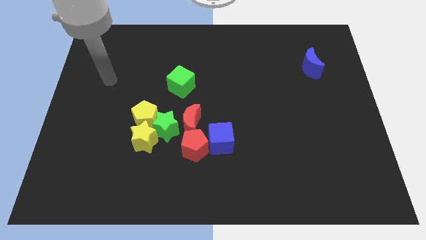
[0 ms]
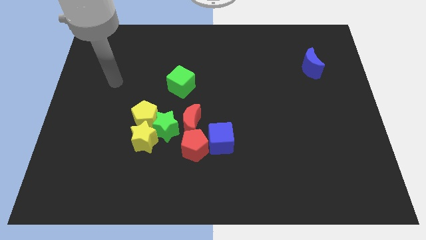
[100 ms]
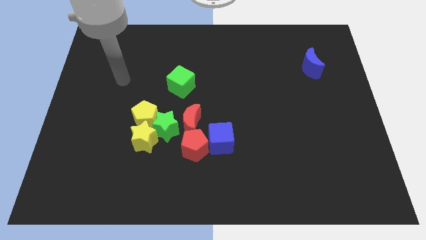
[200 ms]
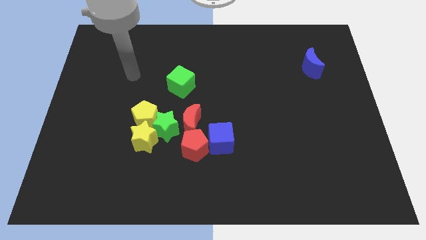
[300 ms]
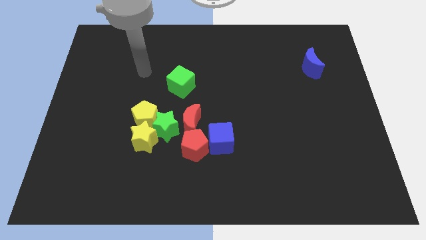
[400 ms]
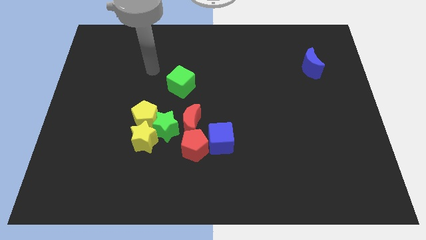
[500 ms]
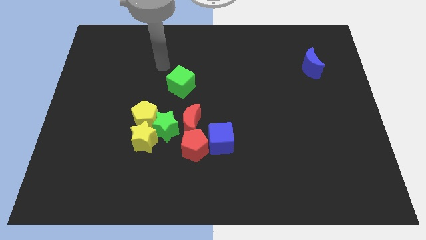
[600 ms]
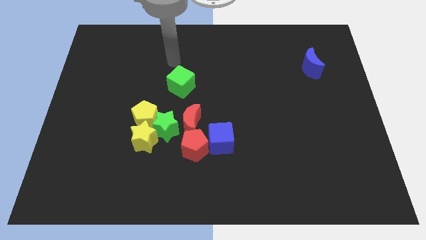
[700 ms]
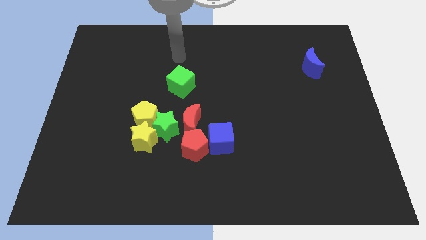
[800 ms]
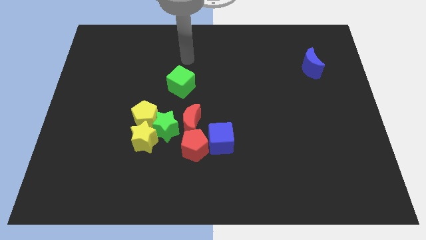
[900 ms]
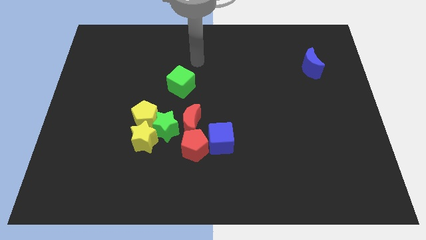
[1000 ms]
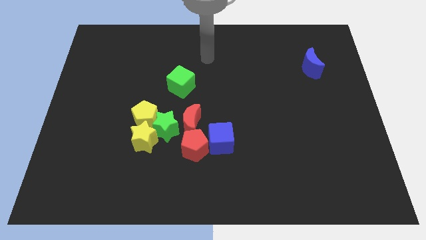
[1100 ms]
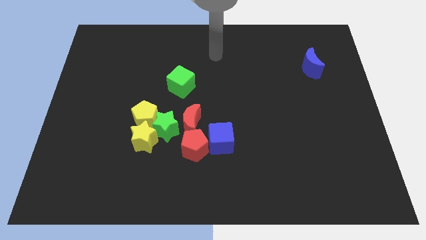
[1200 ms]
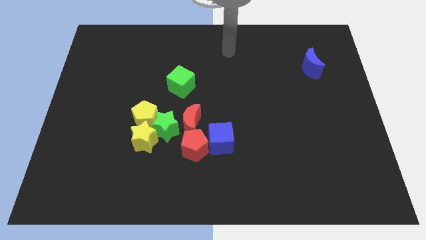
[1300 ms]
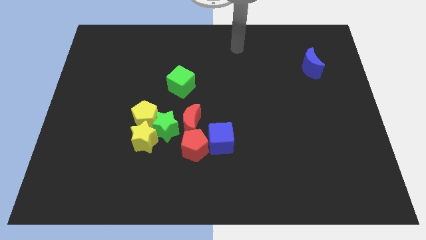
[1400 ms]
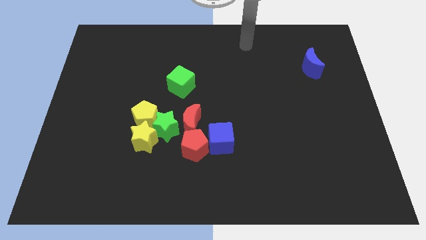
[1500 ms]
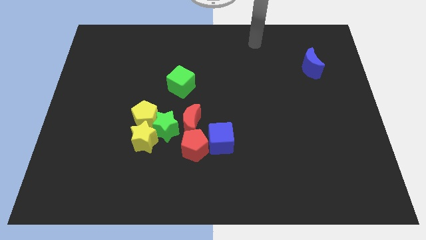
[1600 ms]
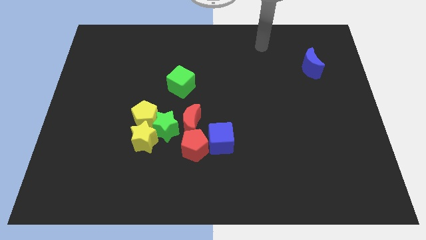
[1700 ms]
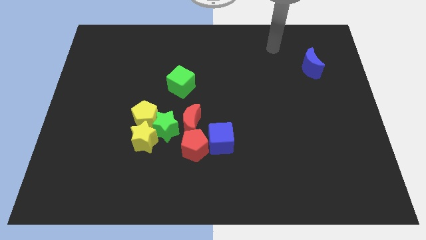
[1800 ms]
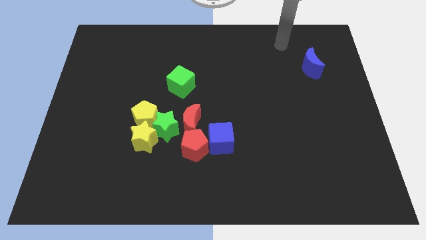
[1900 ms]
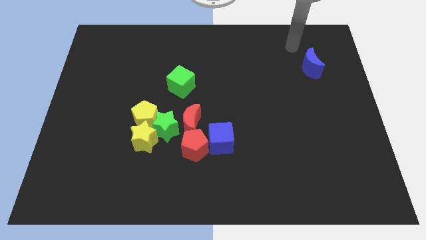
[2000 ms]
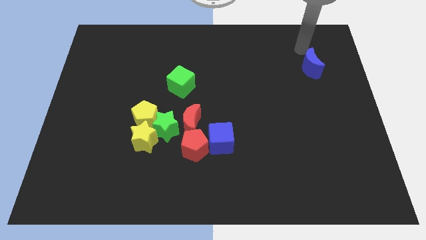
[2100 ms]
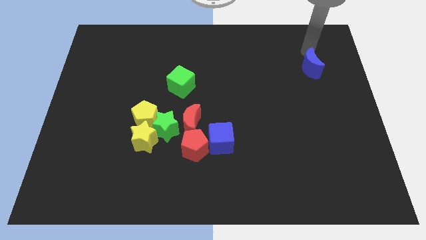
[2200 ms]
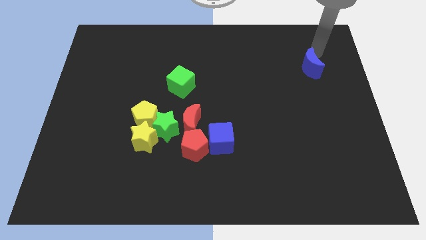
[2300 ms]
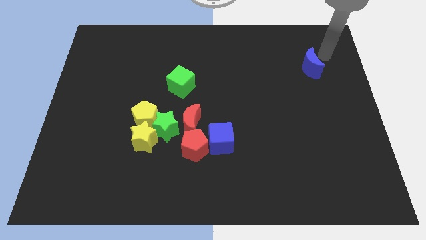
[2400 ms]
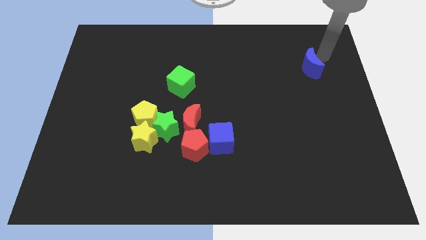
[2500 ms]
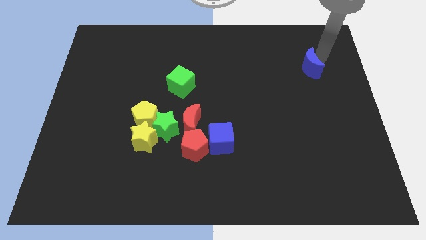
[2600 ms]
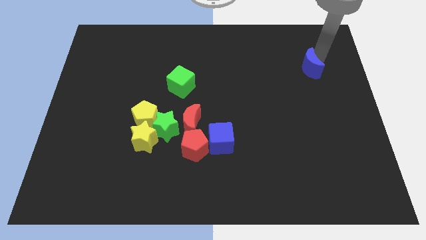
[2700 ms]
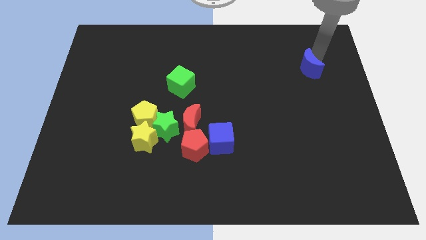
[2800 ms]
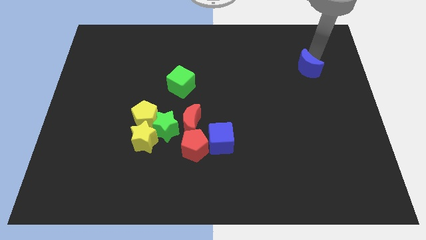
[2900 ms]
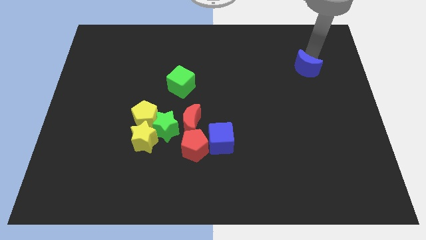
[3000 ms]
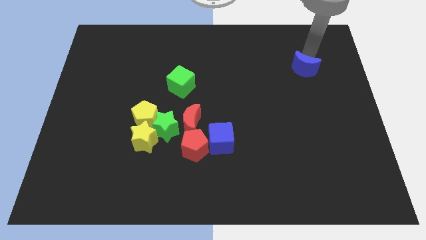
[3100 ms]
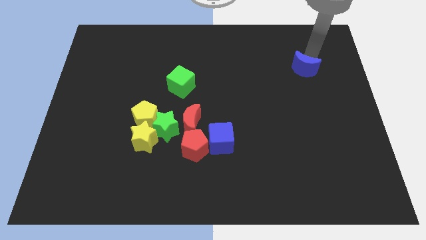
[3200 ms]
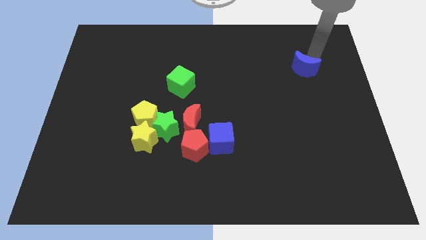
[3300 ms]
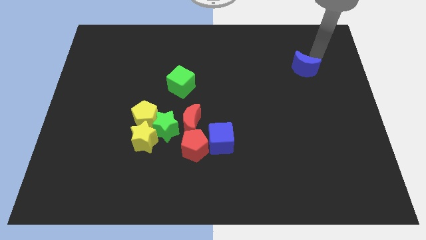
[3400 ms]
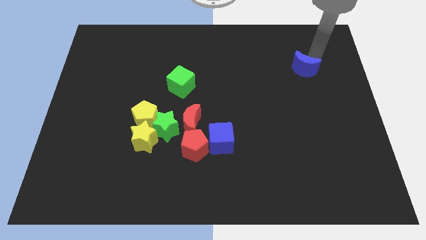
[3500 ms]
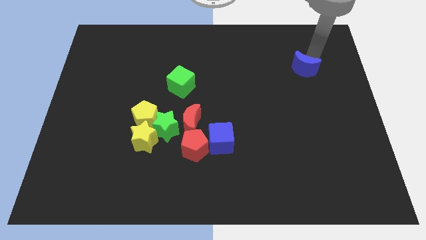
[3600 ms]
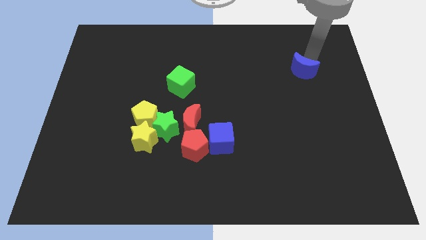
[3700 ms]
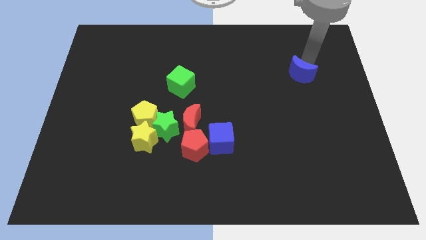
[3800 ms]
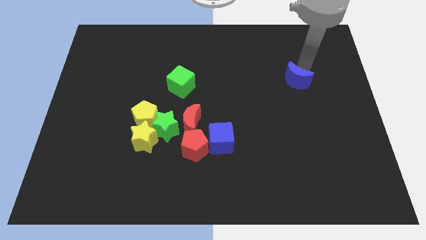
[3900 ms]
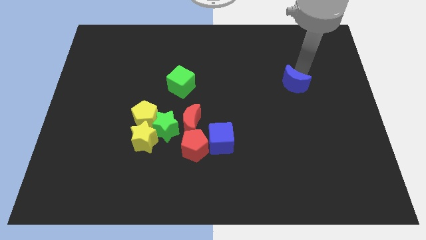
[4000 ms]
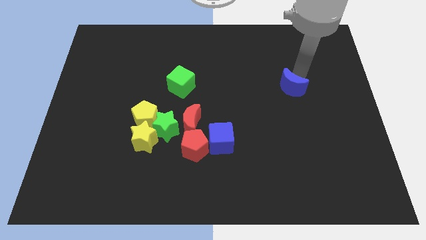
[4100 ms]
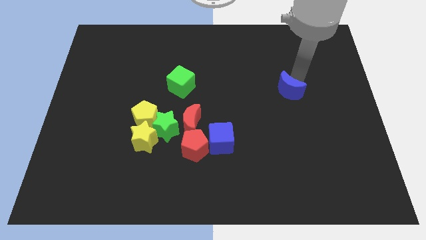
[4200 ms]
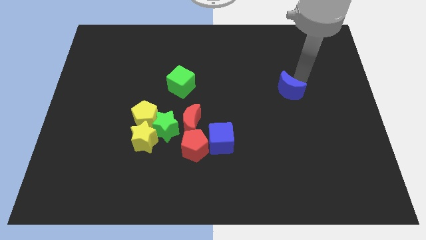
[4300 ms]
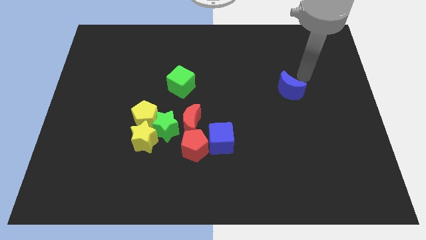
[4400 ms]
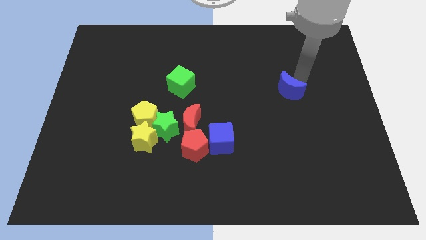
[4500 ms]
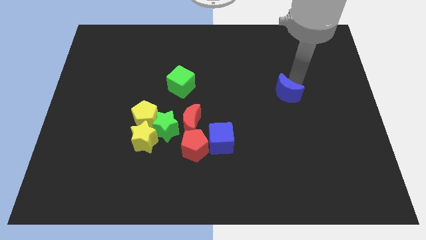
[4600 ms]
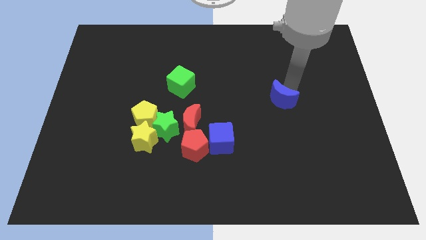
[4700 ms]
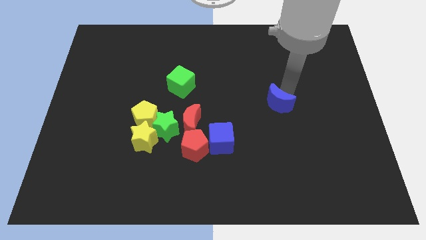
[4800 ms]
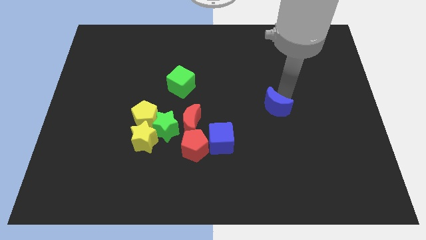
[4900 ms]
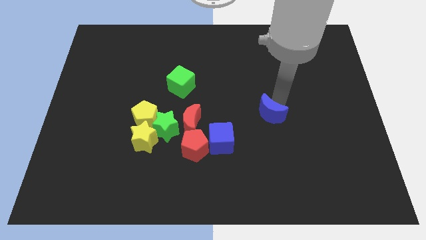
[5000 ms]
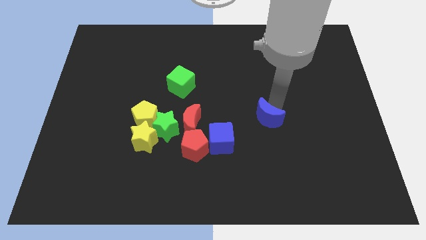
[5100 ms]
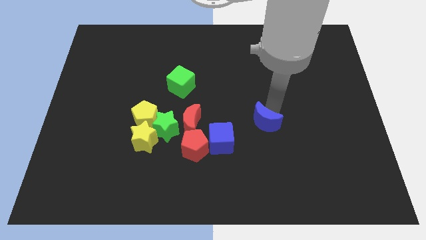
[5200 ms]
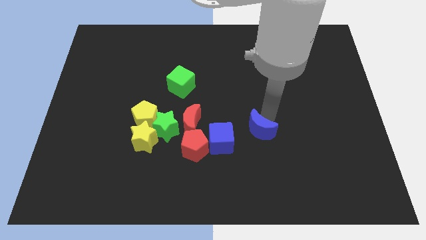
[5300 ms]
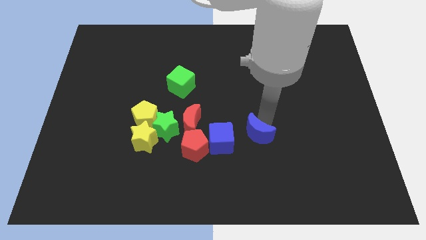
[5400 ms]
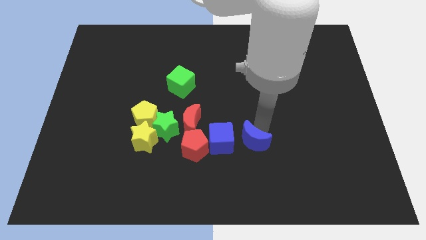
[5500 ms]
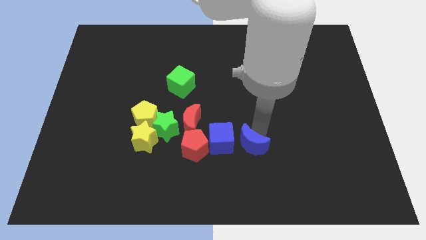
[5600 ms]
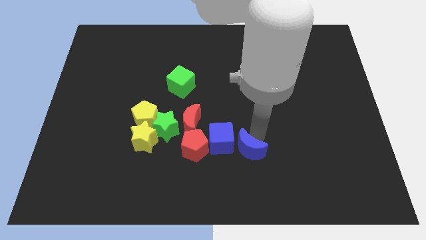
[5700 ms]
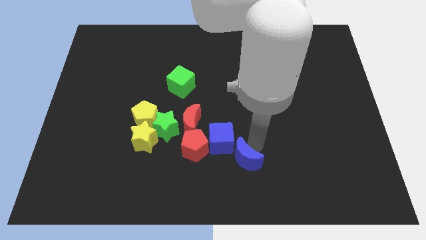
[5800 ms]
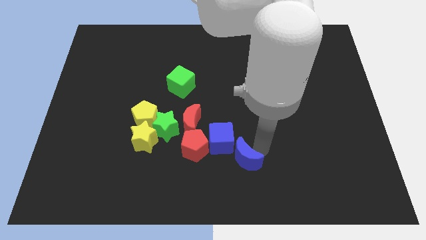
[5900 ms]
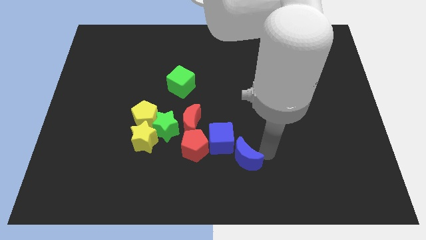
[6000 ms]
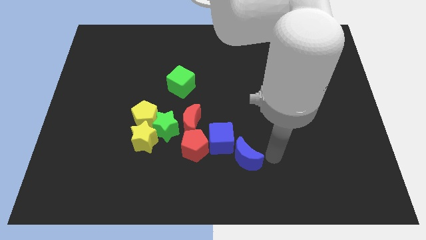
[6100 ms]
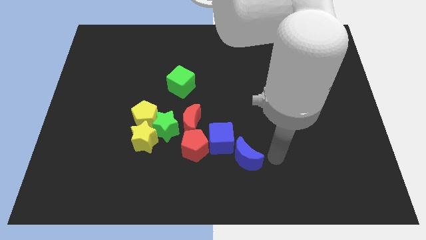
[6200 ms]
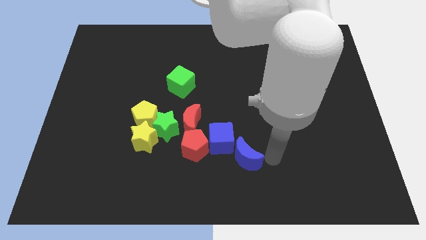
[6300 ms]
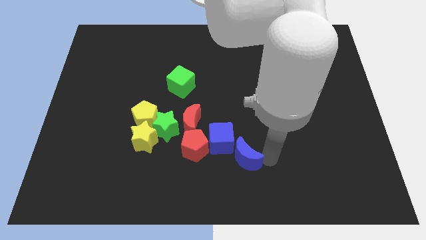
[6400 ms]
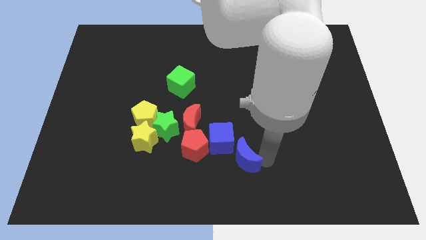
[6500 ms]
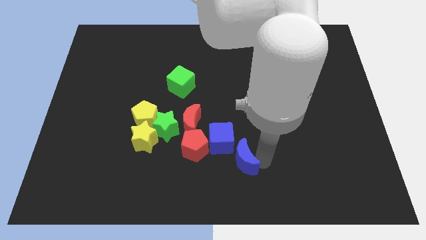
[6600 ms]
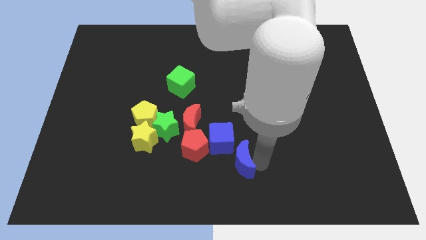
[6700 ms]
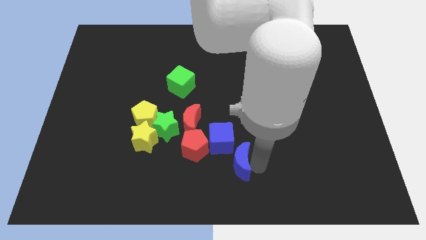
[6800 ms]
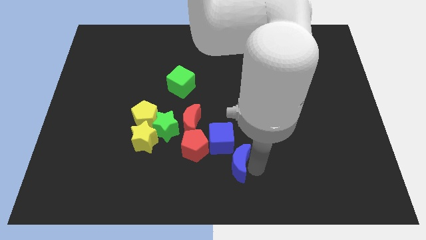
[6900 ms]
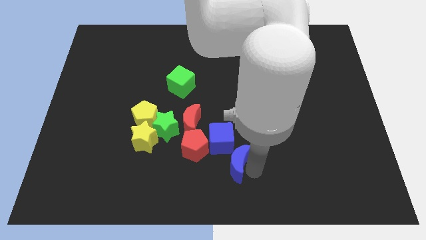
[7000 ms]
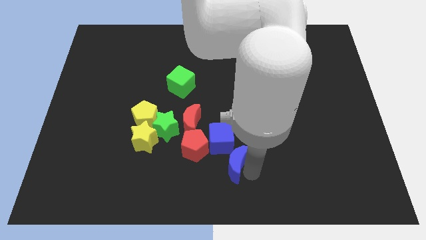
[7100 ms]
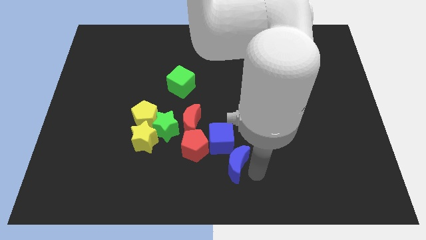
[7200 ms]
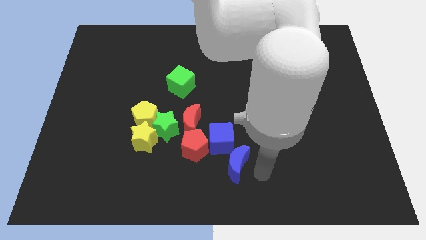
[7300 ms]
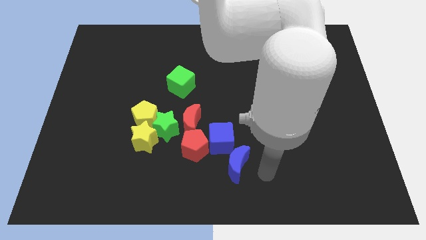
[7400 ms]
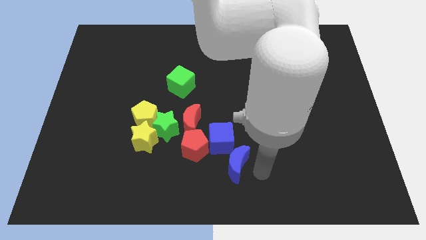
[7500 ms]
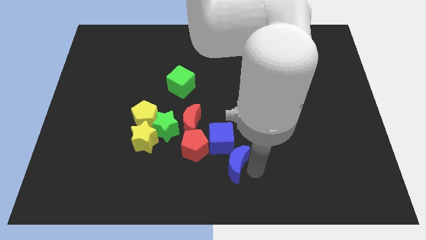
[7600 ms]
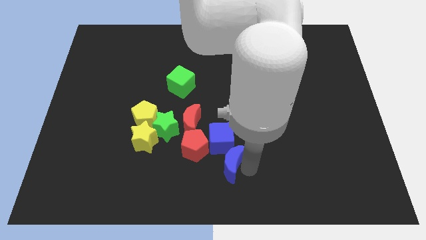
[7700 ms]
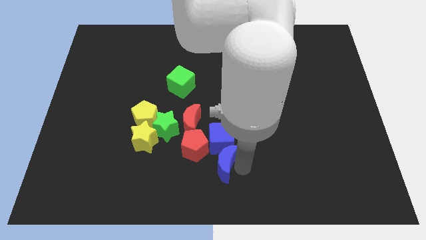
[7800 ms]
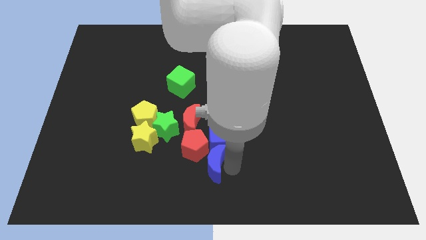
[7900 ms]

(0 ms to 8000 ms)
move the blue moon to the red pentagon
